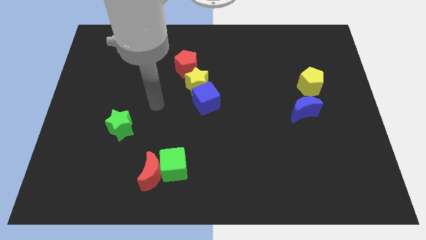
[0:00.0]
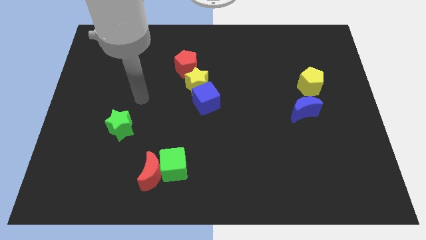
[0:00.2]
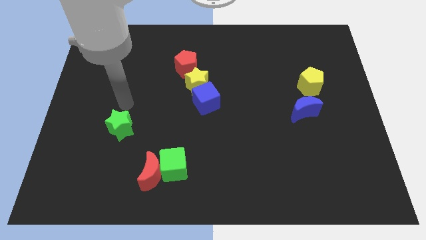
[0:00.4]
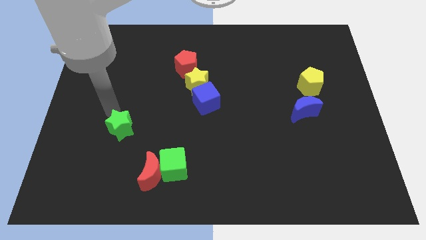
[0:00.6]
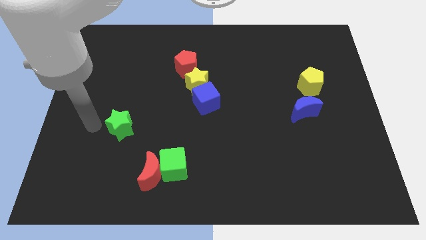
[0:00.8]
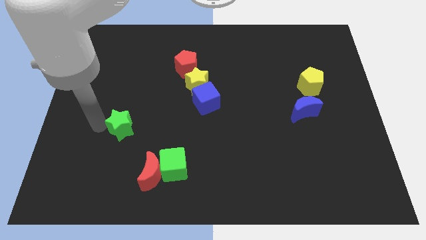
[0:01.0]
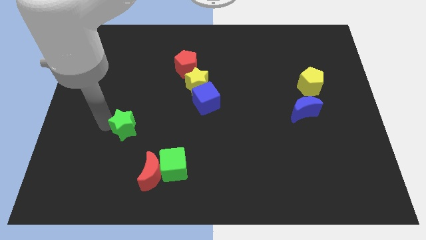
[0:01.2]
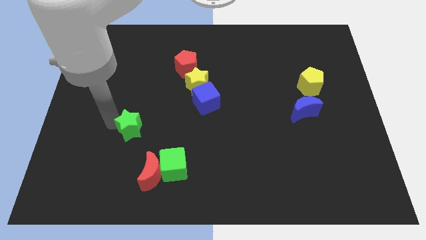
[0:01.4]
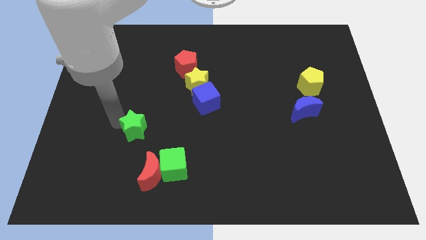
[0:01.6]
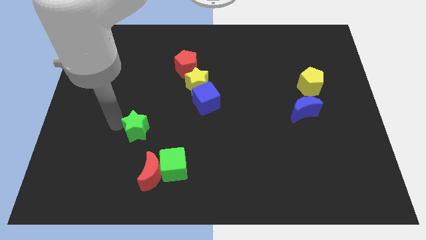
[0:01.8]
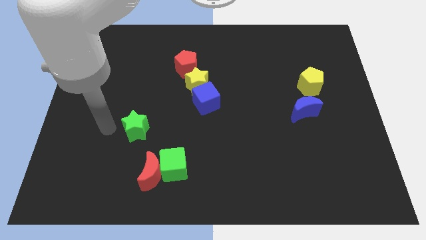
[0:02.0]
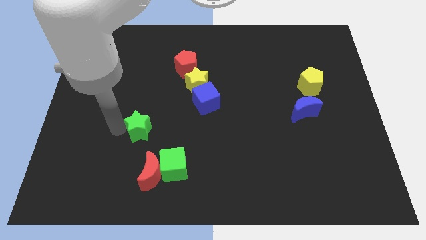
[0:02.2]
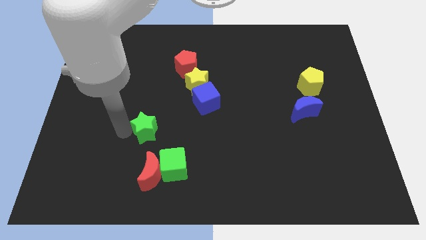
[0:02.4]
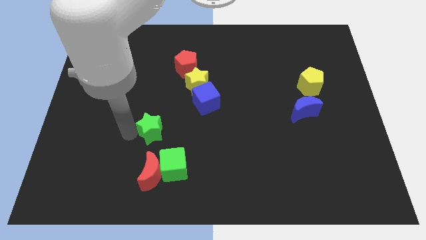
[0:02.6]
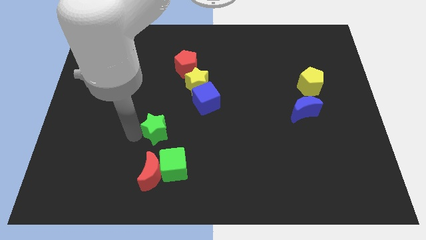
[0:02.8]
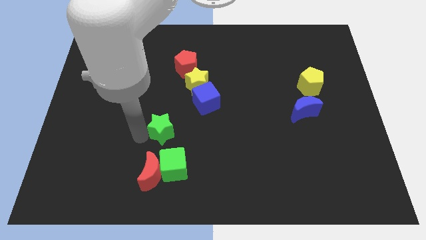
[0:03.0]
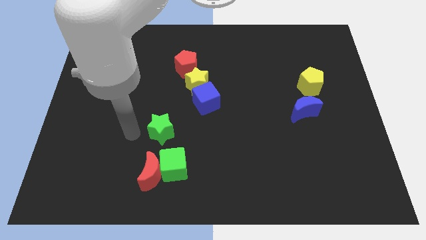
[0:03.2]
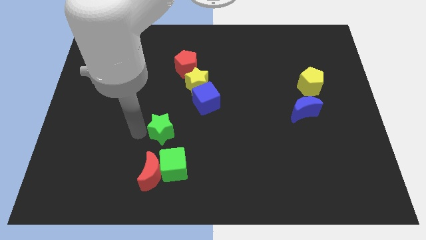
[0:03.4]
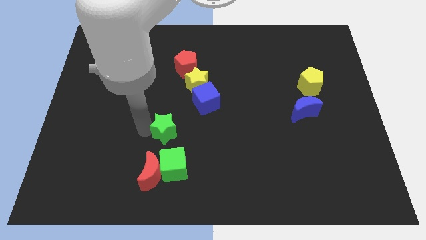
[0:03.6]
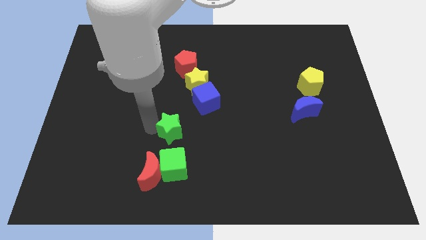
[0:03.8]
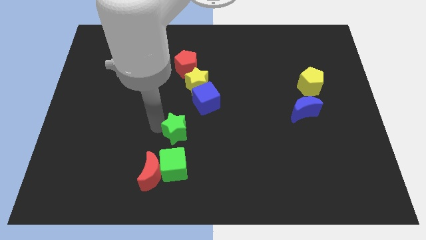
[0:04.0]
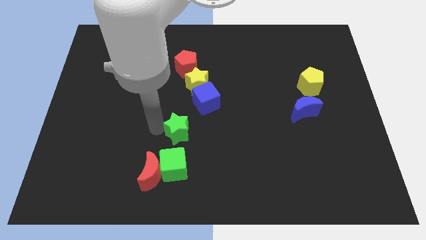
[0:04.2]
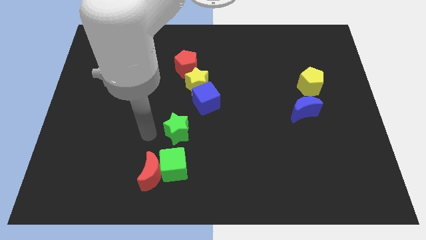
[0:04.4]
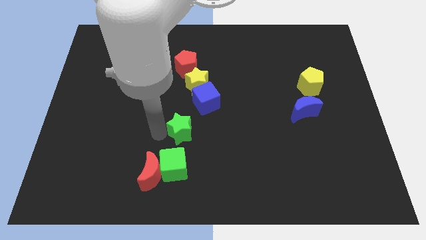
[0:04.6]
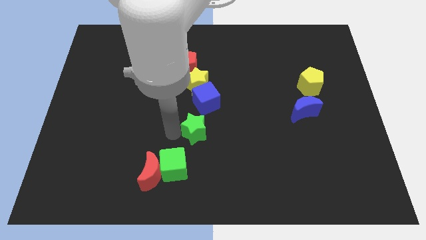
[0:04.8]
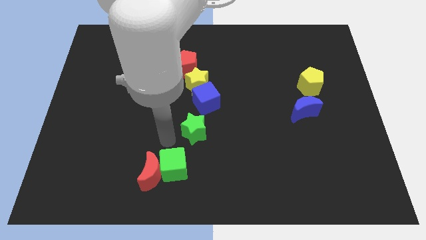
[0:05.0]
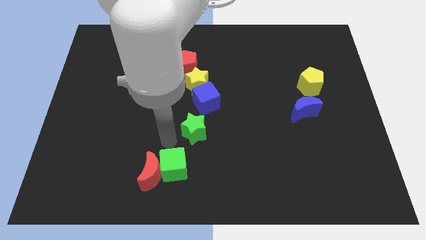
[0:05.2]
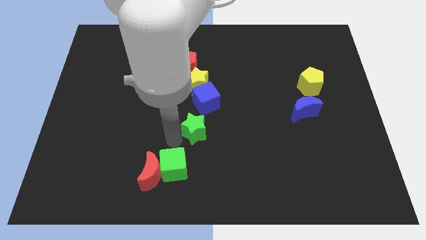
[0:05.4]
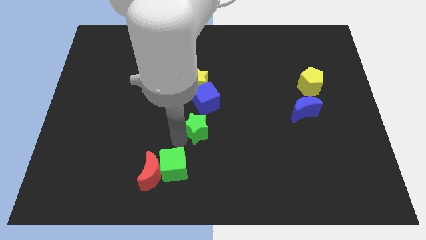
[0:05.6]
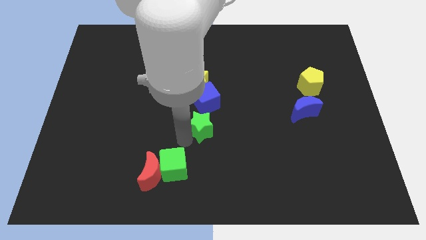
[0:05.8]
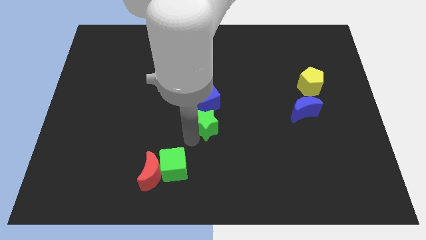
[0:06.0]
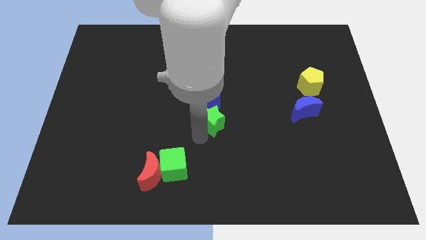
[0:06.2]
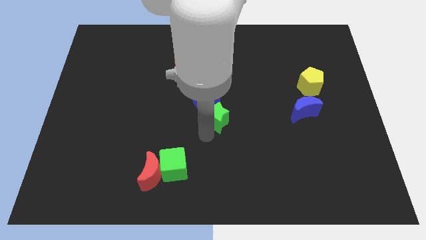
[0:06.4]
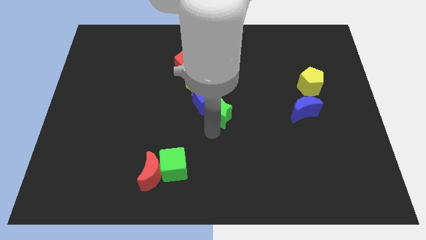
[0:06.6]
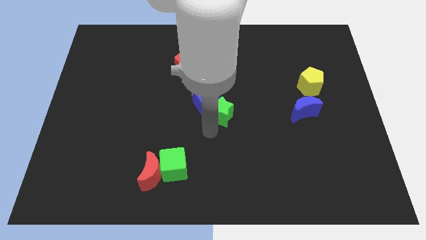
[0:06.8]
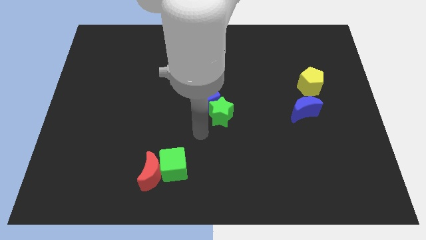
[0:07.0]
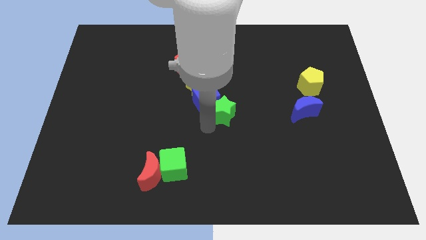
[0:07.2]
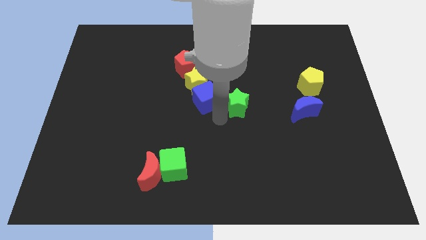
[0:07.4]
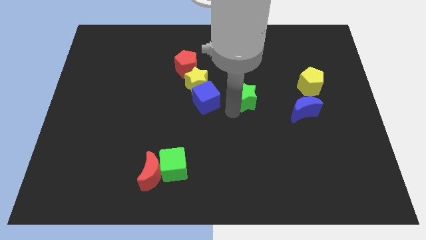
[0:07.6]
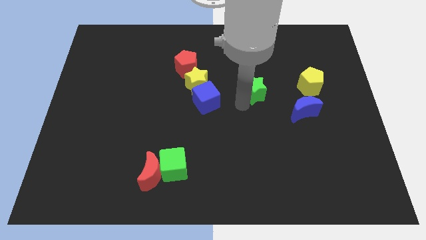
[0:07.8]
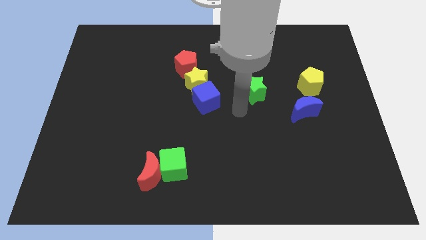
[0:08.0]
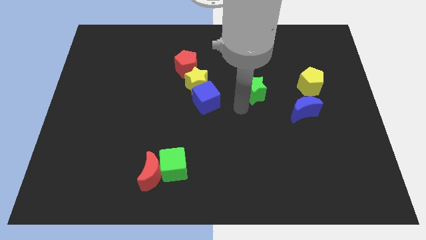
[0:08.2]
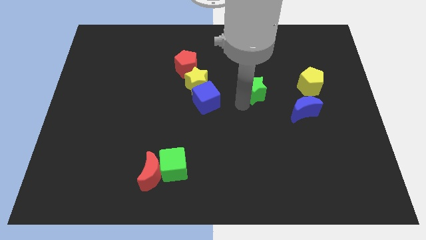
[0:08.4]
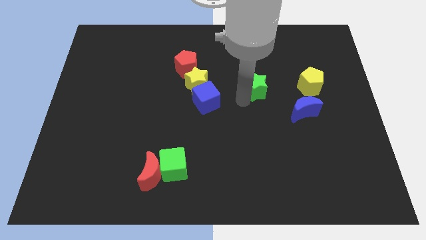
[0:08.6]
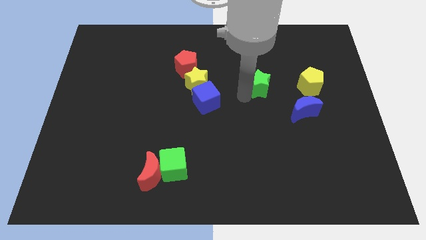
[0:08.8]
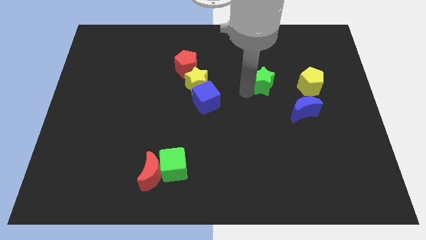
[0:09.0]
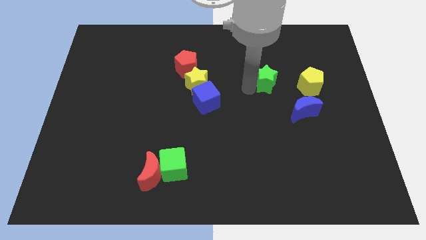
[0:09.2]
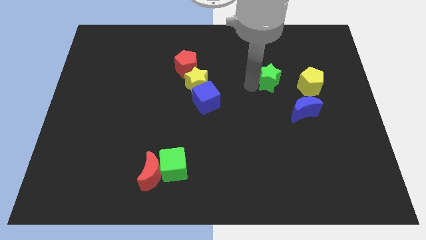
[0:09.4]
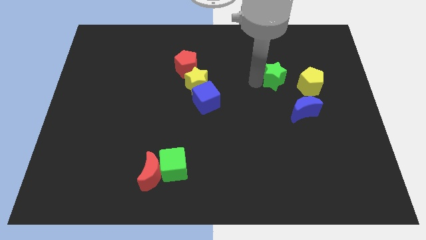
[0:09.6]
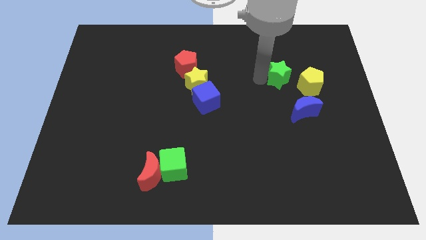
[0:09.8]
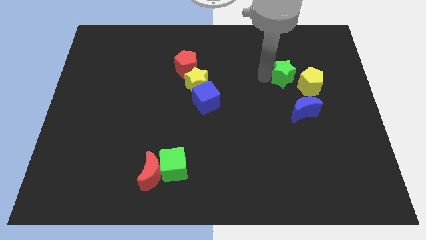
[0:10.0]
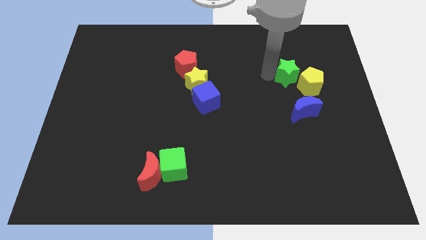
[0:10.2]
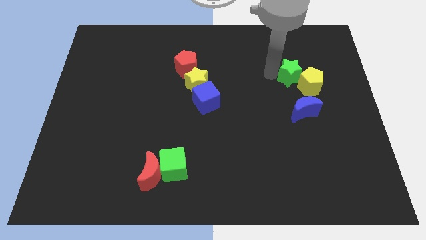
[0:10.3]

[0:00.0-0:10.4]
push the green star to the yellow pentagon

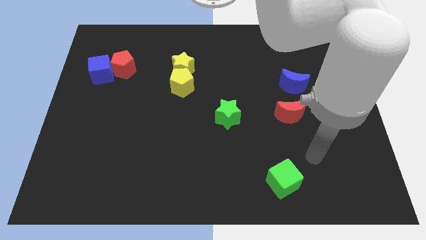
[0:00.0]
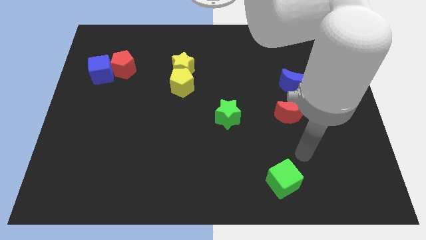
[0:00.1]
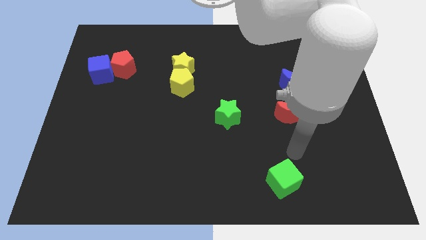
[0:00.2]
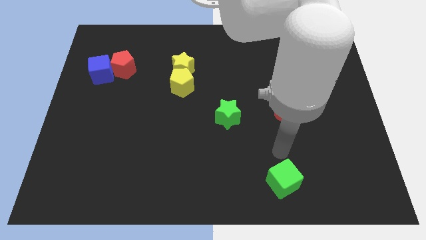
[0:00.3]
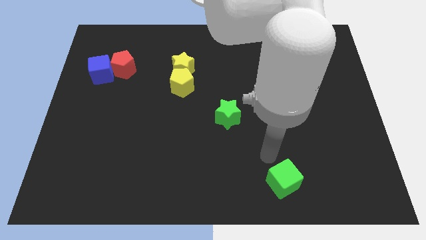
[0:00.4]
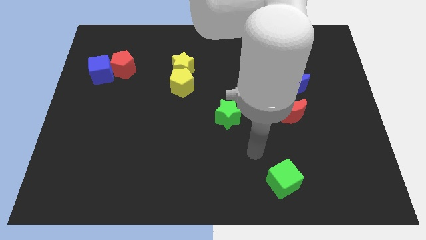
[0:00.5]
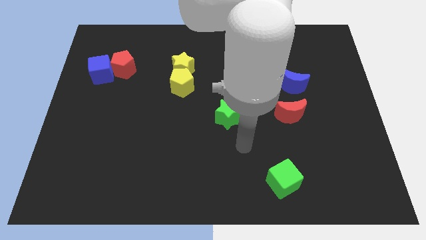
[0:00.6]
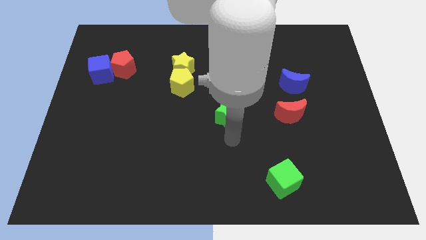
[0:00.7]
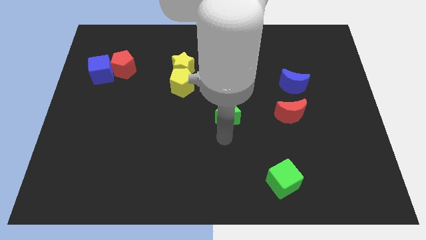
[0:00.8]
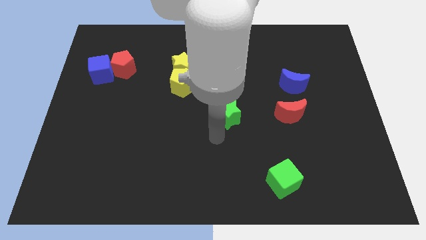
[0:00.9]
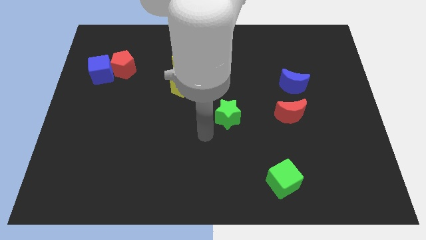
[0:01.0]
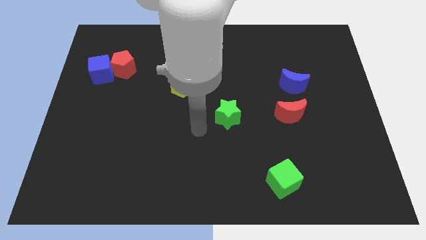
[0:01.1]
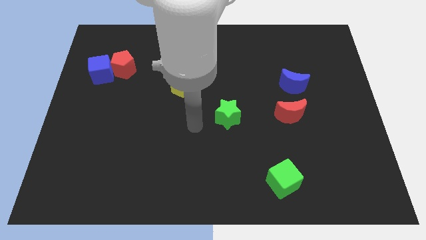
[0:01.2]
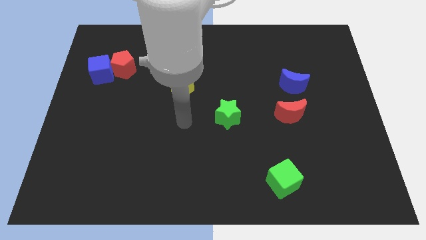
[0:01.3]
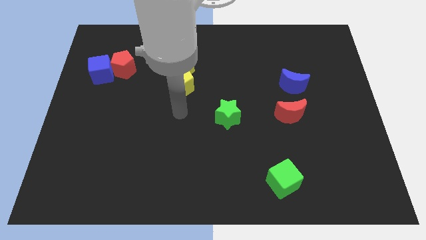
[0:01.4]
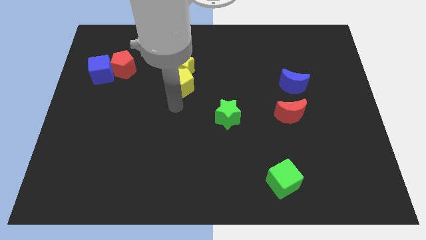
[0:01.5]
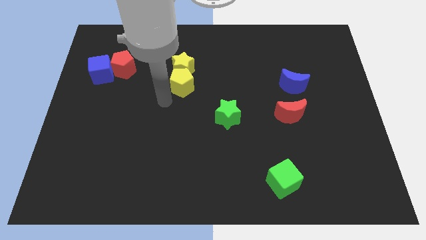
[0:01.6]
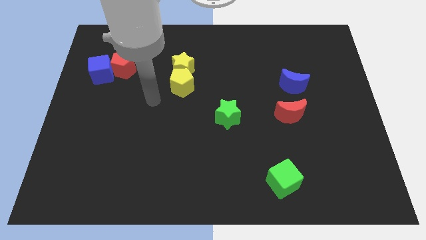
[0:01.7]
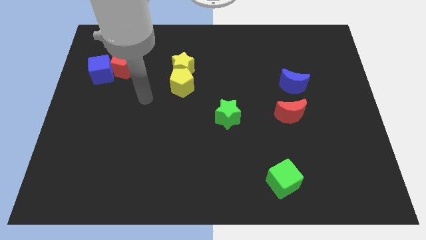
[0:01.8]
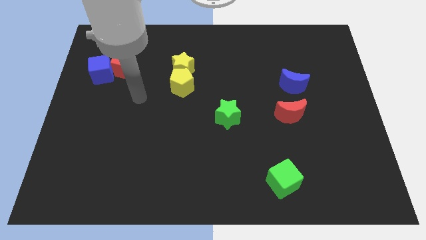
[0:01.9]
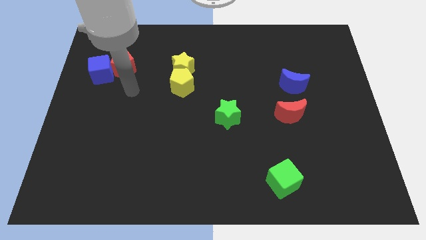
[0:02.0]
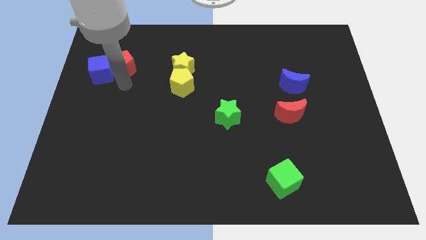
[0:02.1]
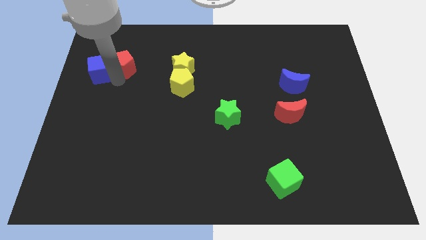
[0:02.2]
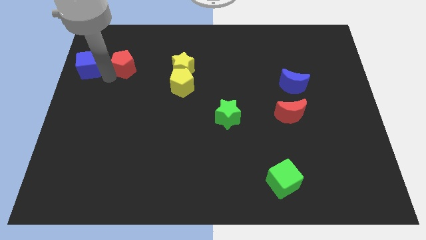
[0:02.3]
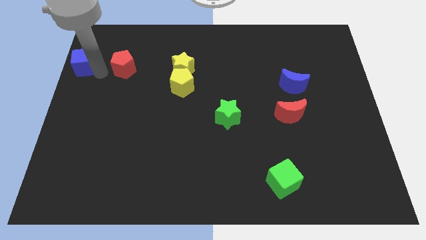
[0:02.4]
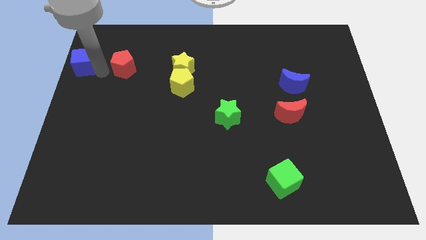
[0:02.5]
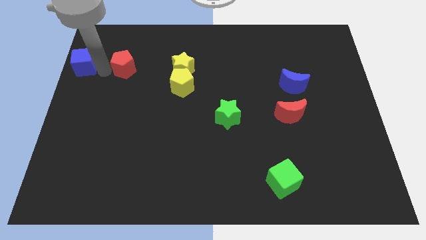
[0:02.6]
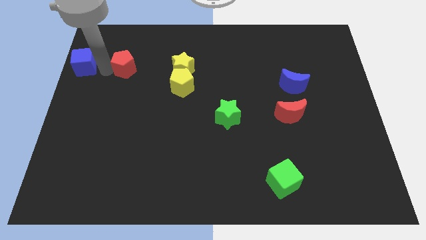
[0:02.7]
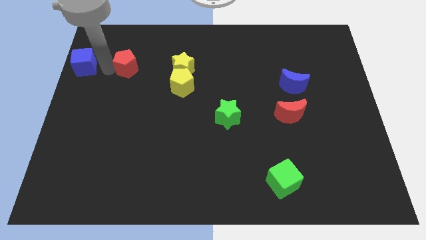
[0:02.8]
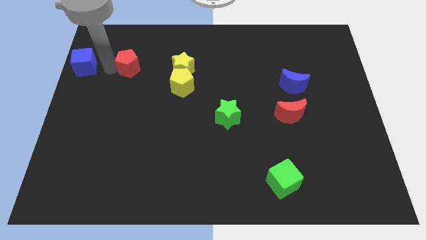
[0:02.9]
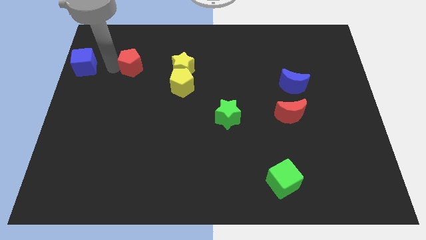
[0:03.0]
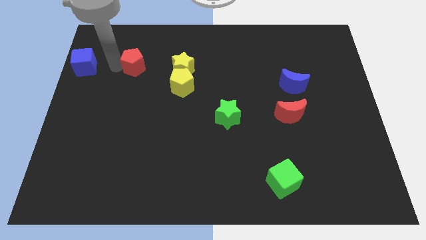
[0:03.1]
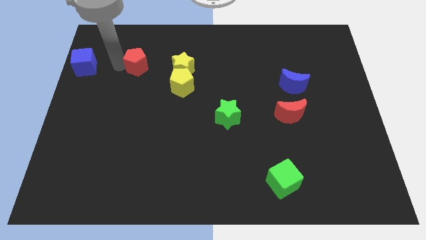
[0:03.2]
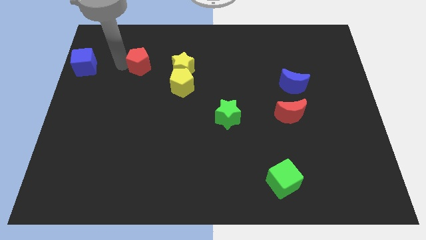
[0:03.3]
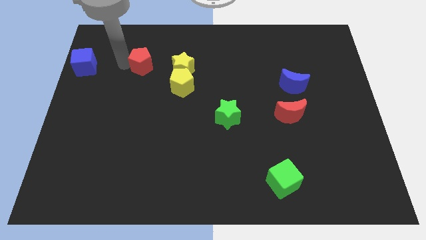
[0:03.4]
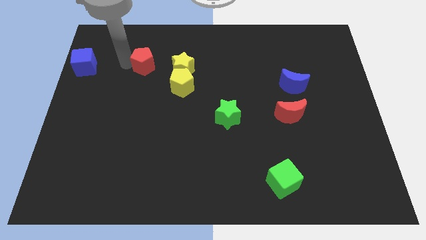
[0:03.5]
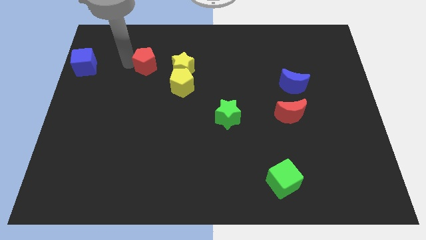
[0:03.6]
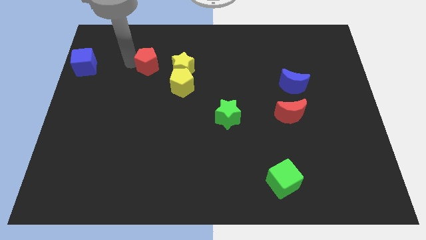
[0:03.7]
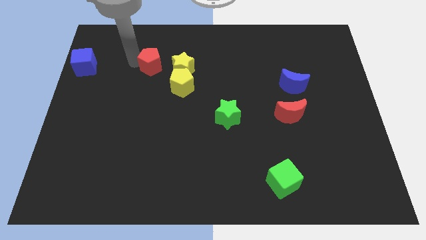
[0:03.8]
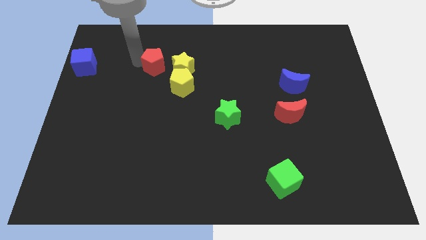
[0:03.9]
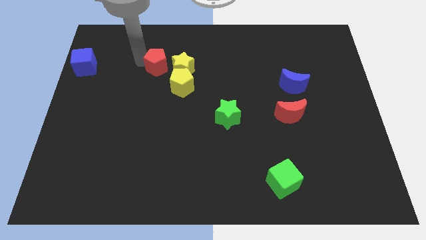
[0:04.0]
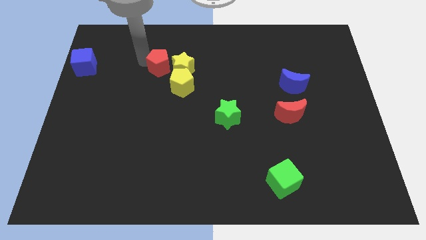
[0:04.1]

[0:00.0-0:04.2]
move the red pentagon next to the yellow star
